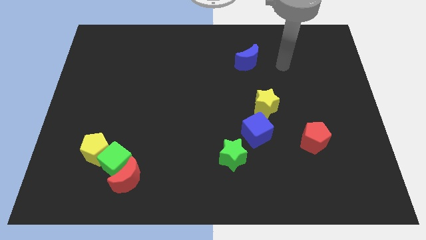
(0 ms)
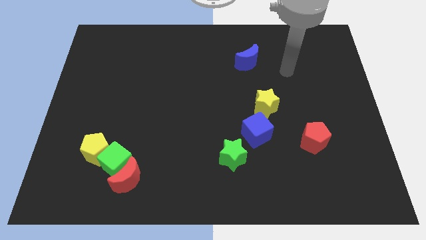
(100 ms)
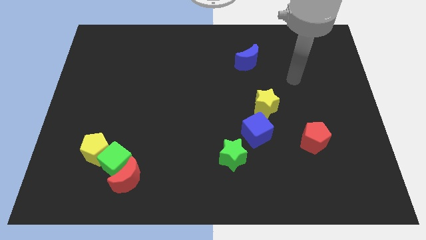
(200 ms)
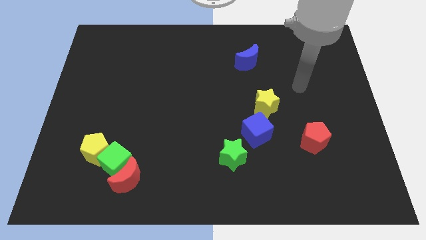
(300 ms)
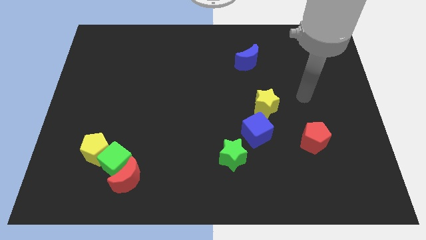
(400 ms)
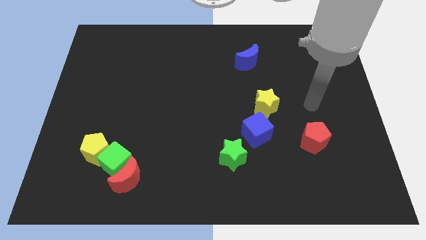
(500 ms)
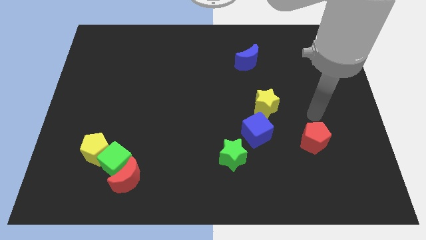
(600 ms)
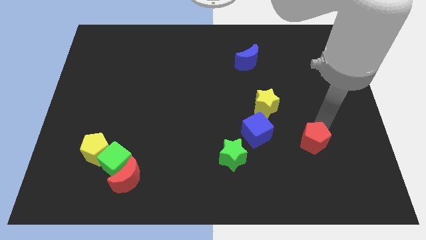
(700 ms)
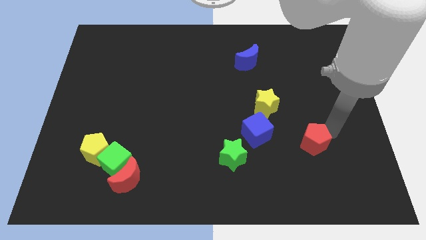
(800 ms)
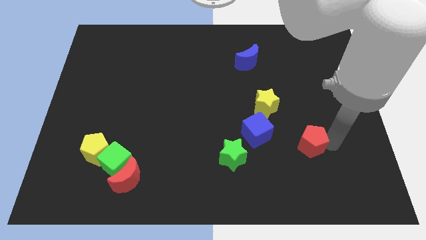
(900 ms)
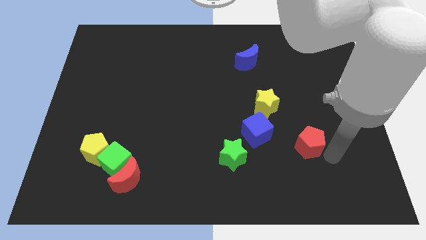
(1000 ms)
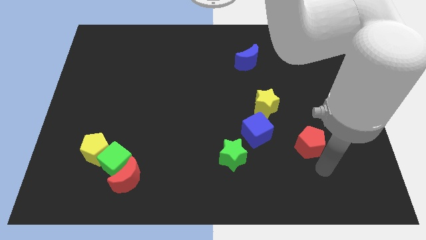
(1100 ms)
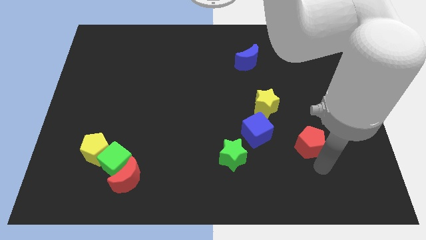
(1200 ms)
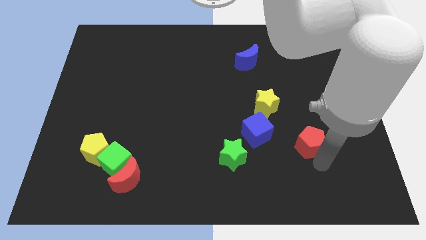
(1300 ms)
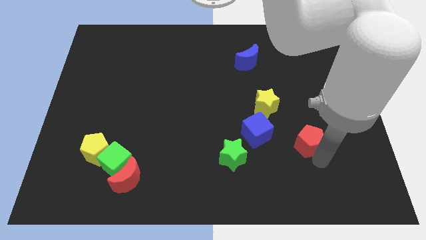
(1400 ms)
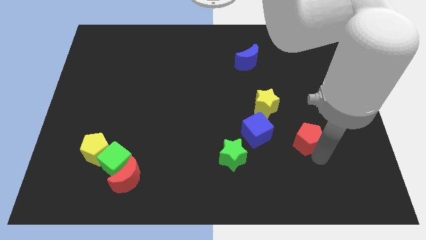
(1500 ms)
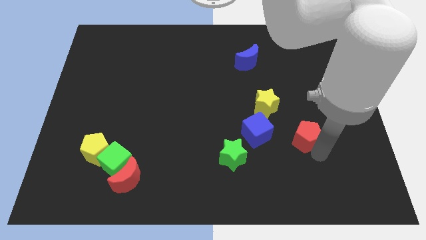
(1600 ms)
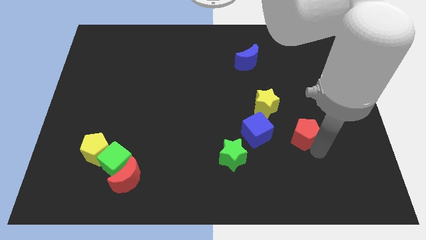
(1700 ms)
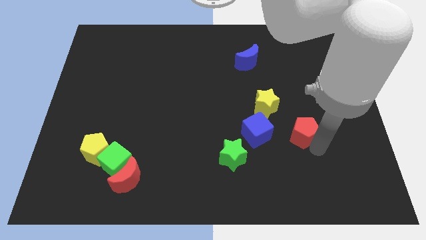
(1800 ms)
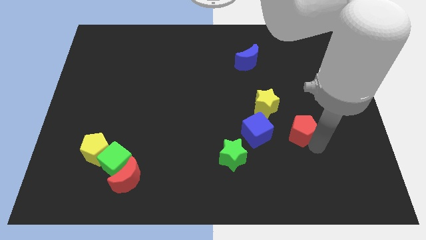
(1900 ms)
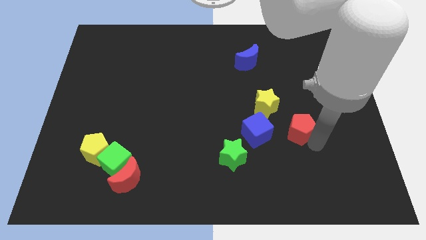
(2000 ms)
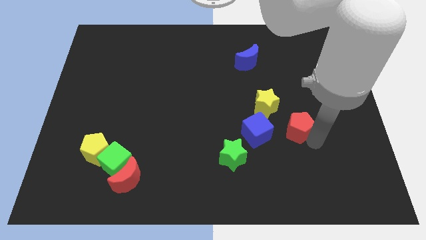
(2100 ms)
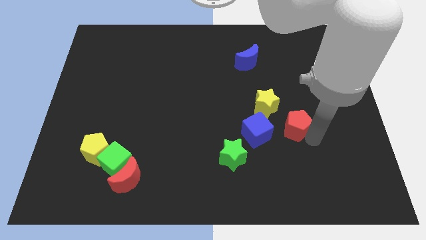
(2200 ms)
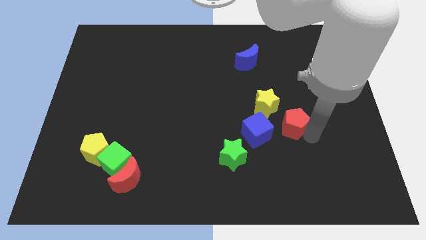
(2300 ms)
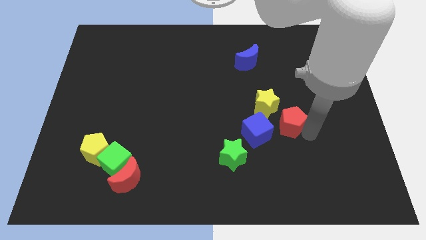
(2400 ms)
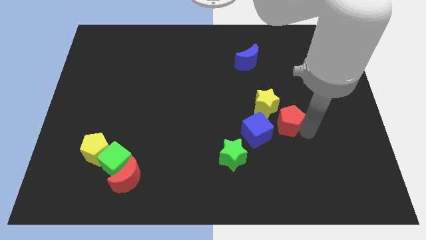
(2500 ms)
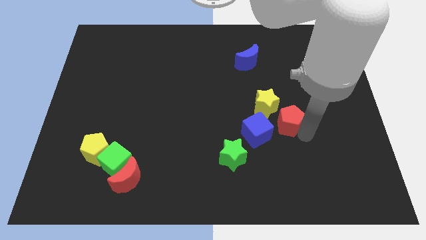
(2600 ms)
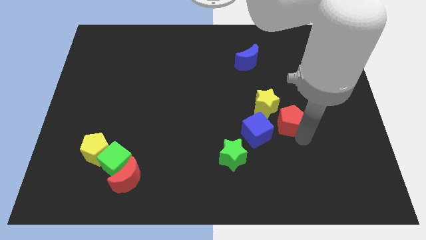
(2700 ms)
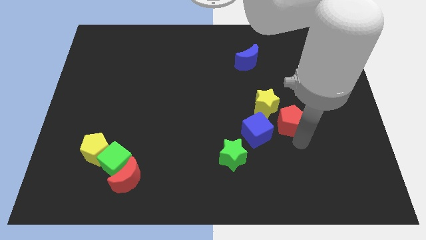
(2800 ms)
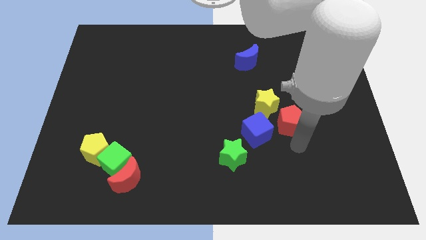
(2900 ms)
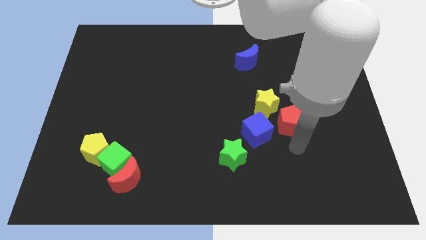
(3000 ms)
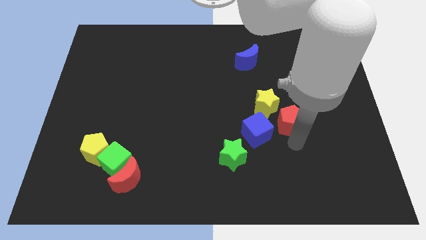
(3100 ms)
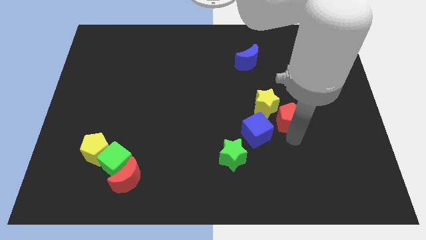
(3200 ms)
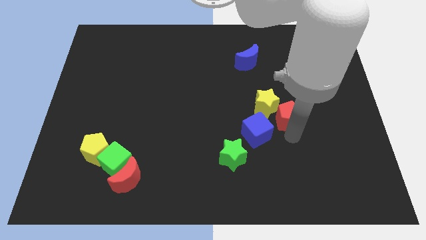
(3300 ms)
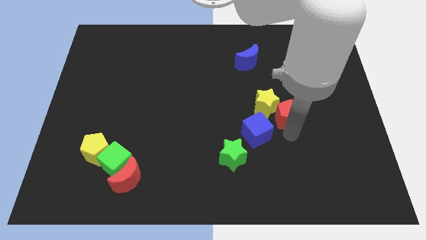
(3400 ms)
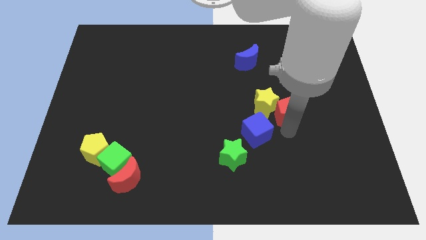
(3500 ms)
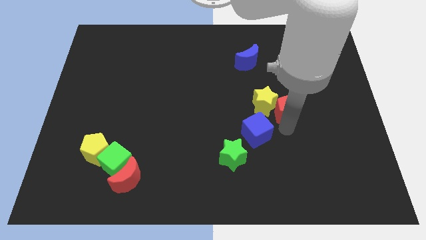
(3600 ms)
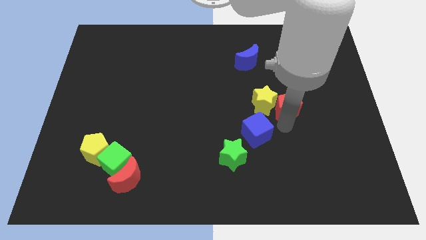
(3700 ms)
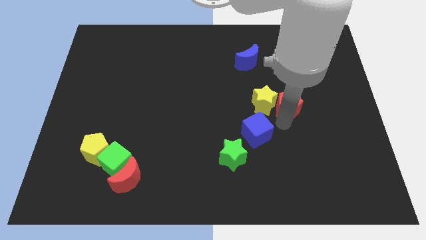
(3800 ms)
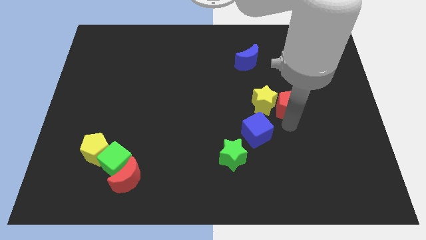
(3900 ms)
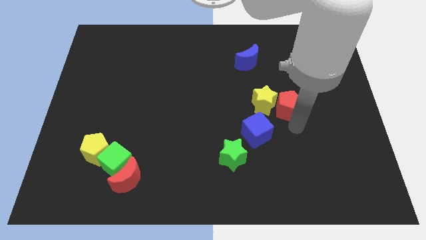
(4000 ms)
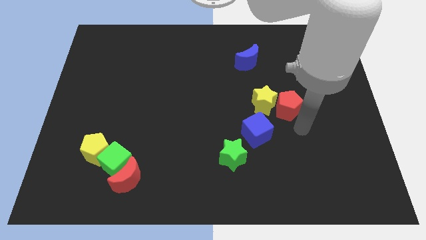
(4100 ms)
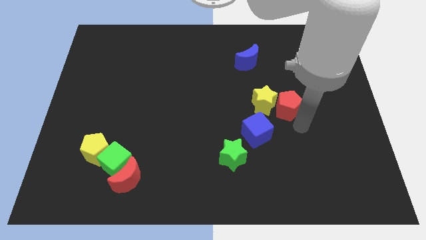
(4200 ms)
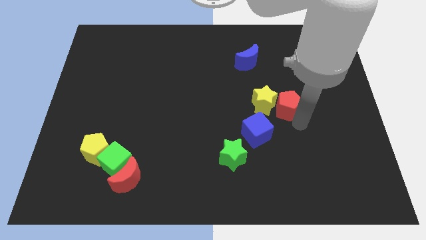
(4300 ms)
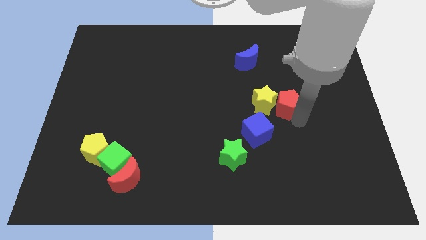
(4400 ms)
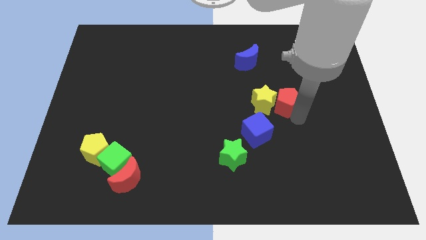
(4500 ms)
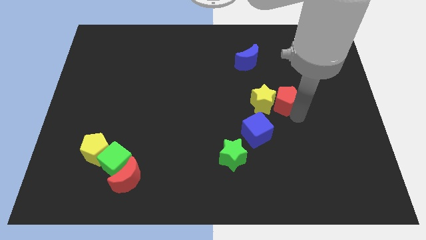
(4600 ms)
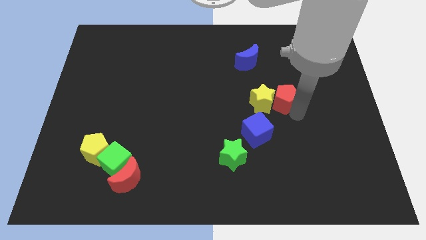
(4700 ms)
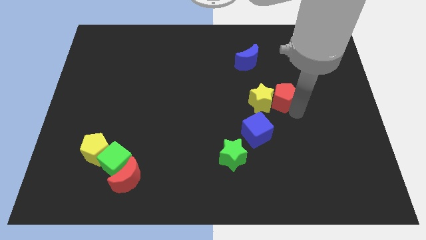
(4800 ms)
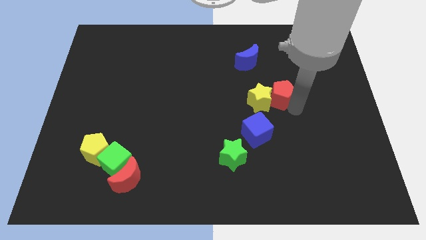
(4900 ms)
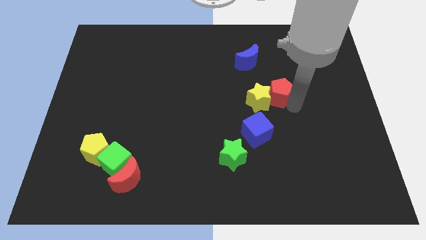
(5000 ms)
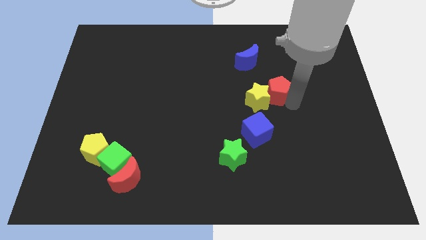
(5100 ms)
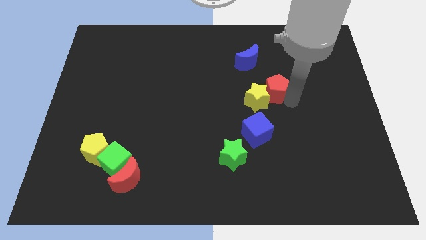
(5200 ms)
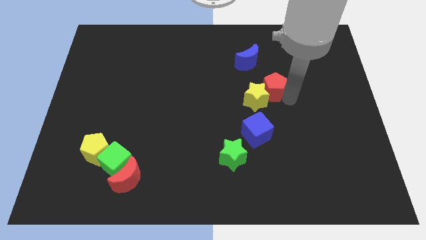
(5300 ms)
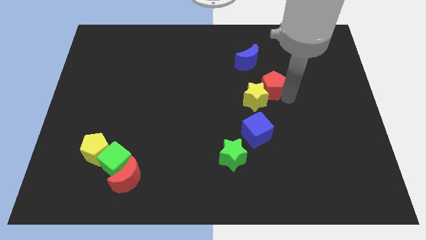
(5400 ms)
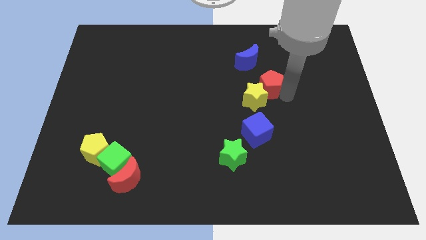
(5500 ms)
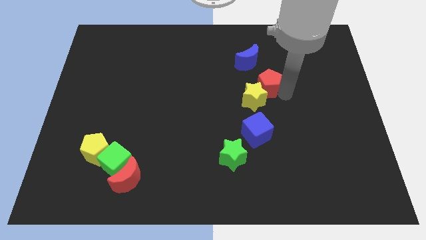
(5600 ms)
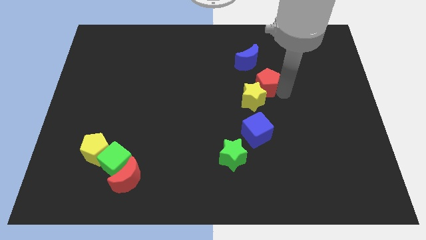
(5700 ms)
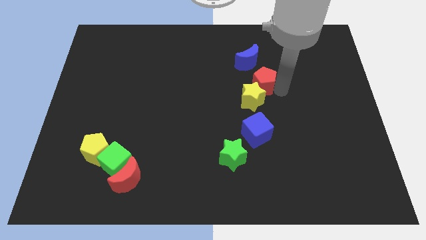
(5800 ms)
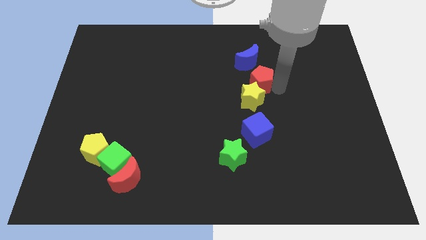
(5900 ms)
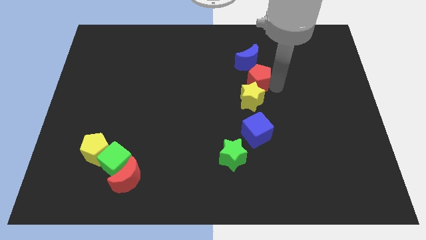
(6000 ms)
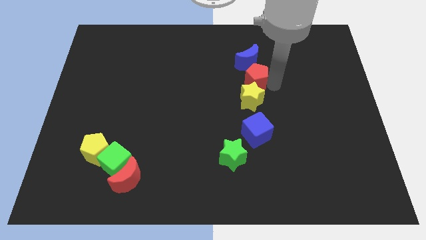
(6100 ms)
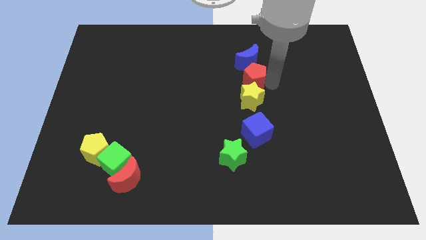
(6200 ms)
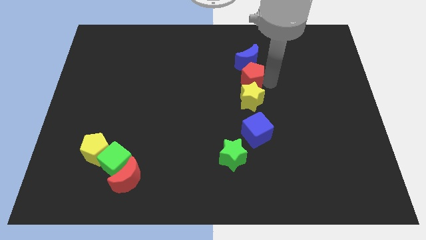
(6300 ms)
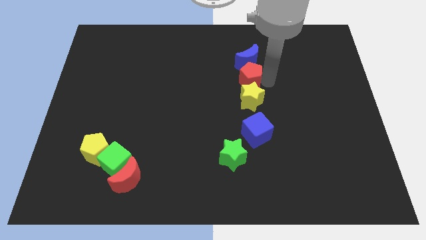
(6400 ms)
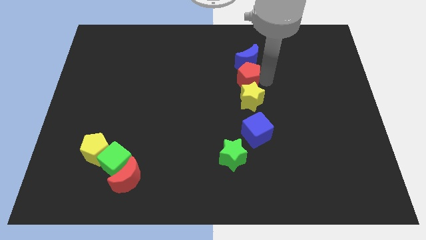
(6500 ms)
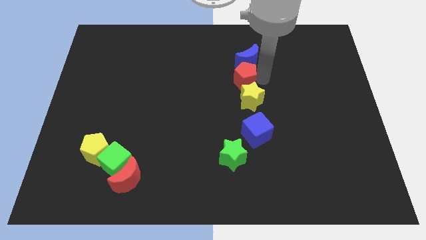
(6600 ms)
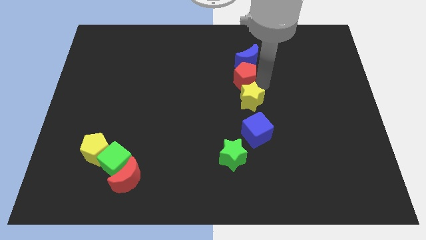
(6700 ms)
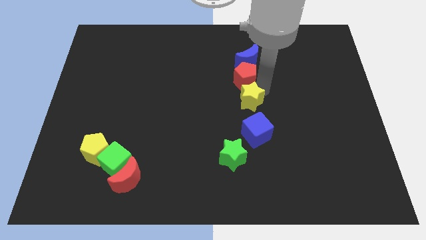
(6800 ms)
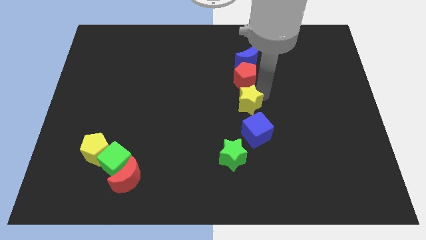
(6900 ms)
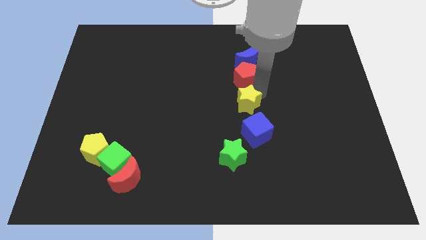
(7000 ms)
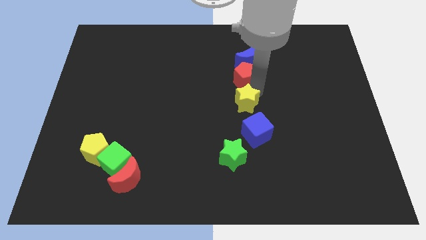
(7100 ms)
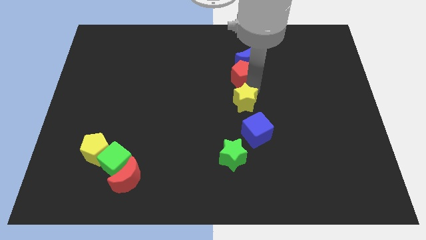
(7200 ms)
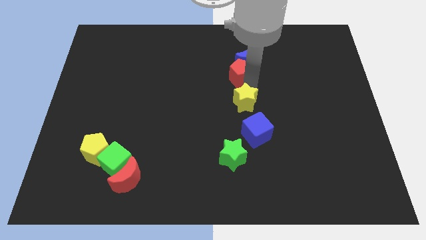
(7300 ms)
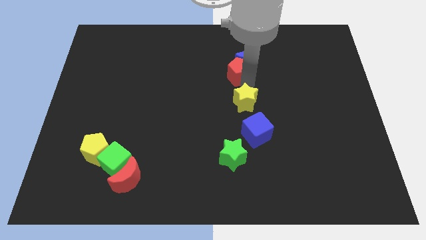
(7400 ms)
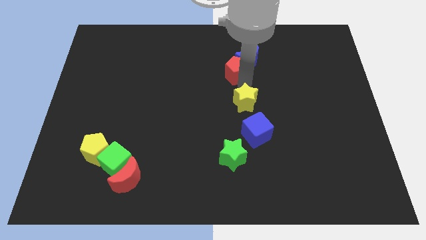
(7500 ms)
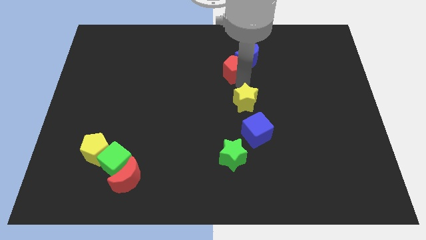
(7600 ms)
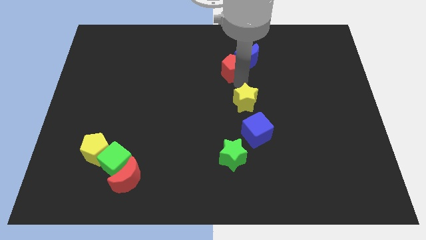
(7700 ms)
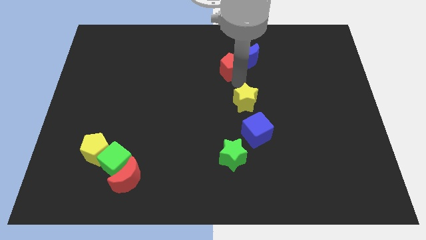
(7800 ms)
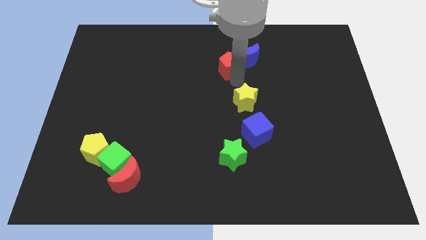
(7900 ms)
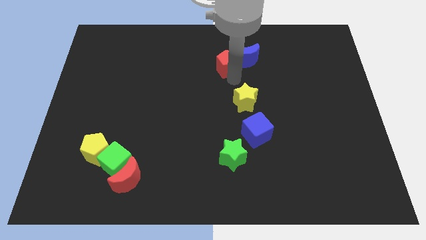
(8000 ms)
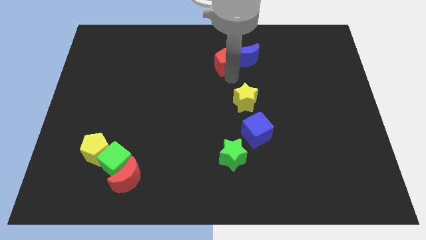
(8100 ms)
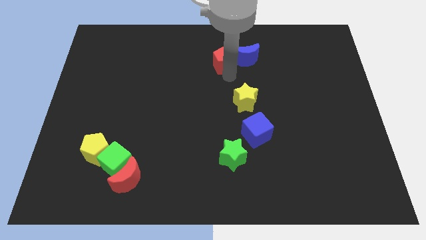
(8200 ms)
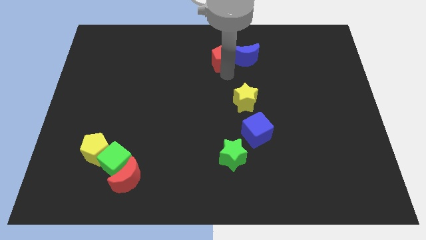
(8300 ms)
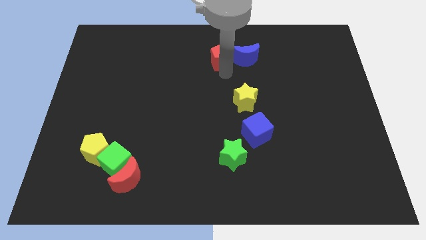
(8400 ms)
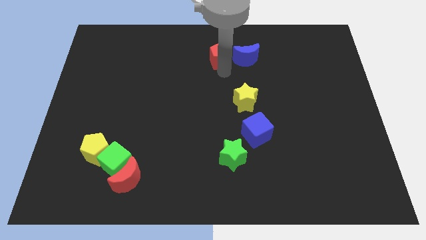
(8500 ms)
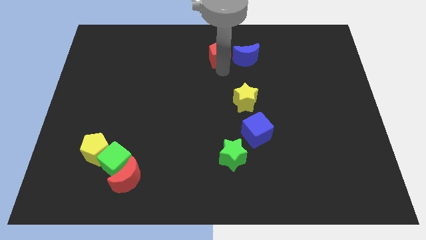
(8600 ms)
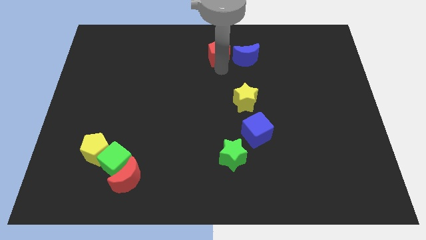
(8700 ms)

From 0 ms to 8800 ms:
slide the red pentagon to the top
